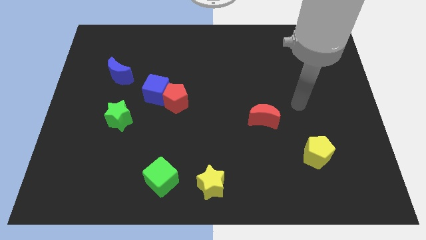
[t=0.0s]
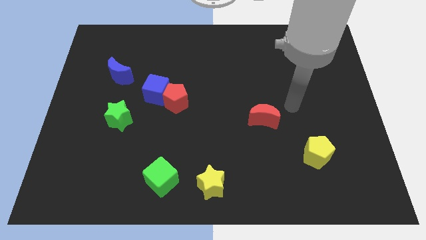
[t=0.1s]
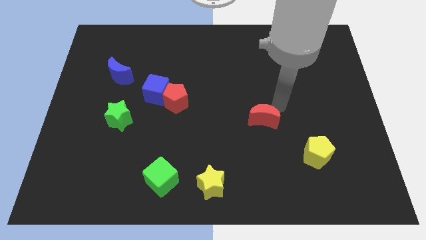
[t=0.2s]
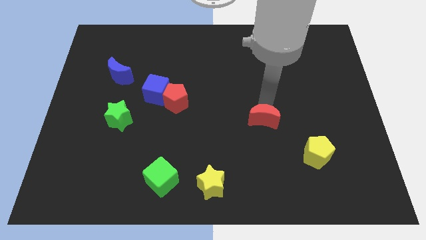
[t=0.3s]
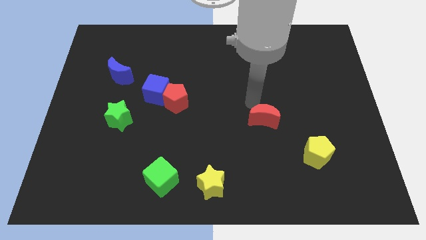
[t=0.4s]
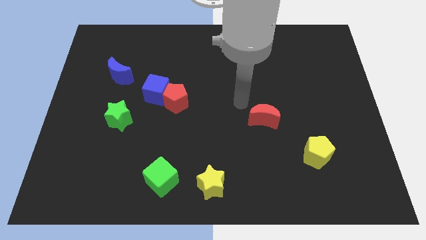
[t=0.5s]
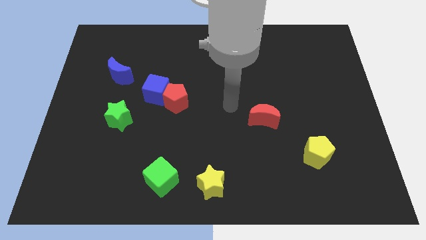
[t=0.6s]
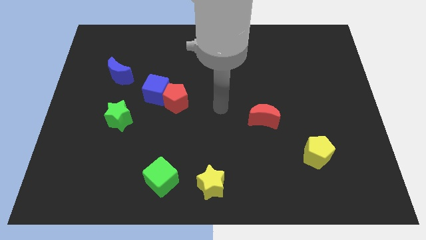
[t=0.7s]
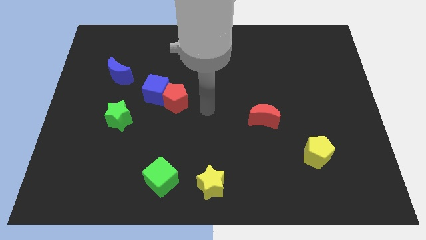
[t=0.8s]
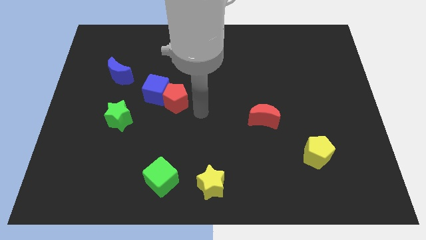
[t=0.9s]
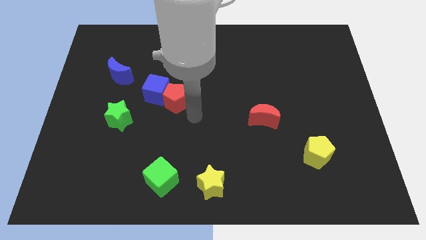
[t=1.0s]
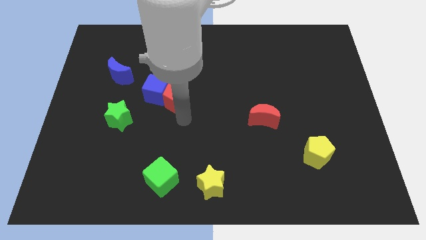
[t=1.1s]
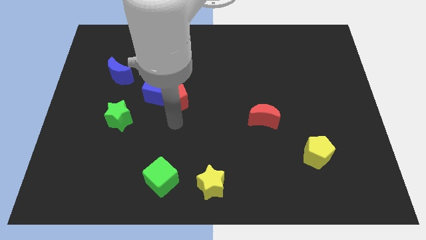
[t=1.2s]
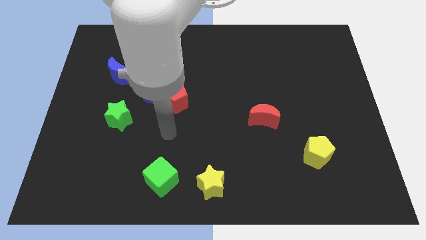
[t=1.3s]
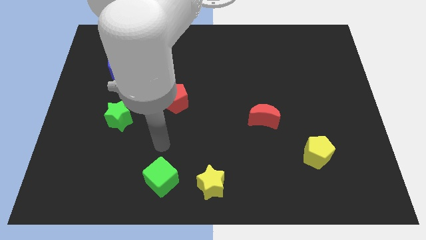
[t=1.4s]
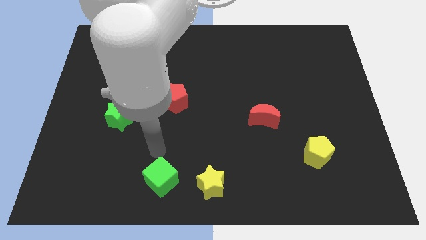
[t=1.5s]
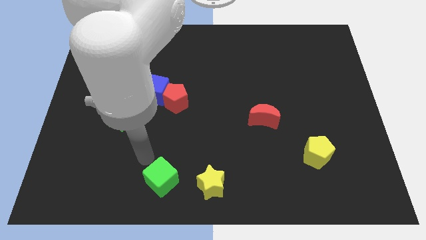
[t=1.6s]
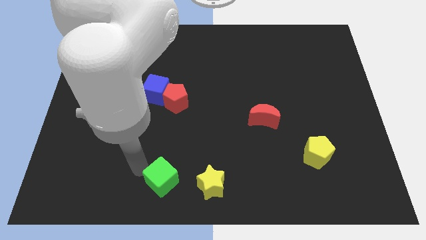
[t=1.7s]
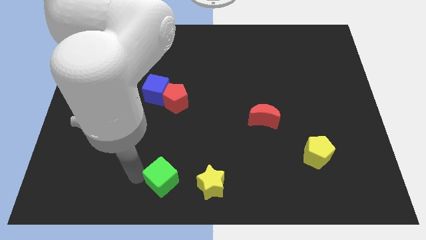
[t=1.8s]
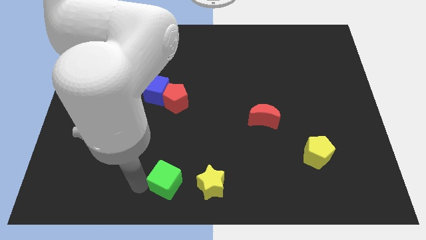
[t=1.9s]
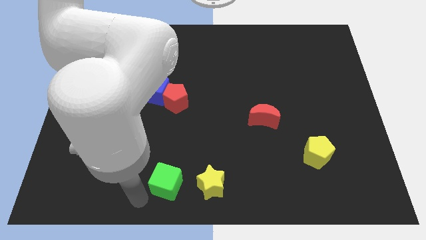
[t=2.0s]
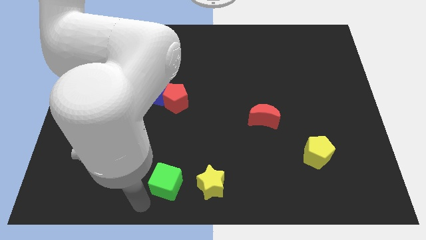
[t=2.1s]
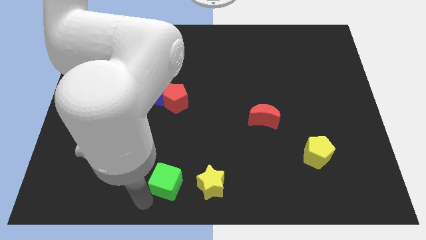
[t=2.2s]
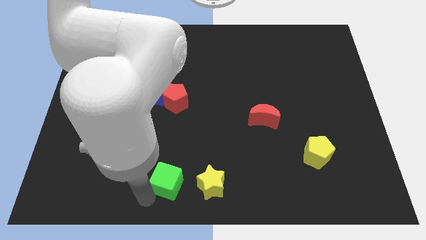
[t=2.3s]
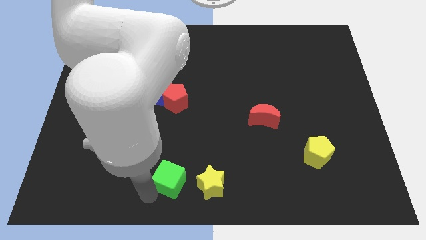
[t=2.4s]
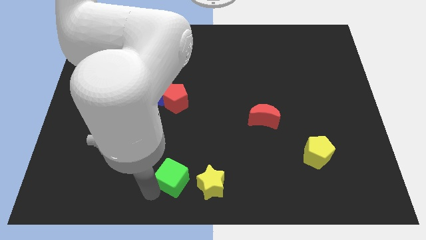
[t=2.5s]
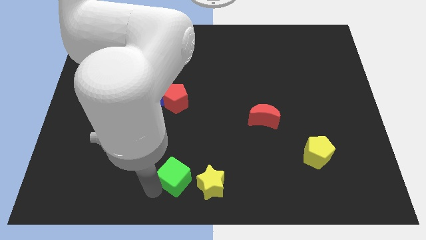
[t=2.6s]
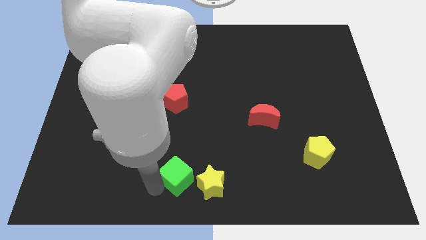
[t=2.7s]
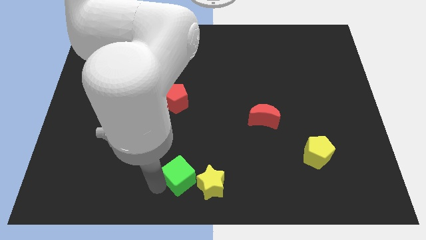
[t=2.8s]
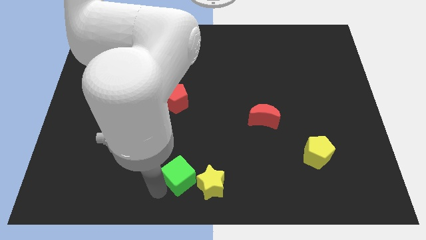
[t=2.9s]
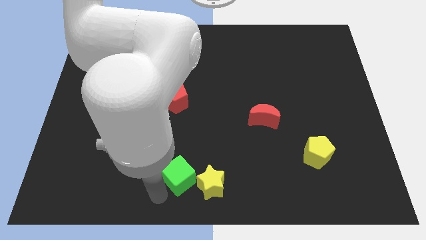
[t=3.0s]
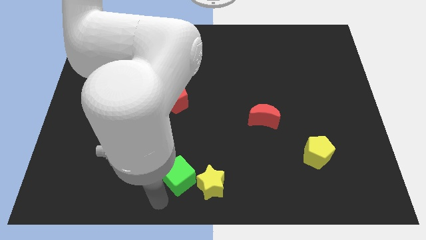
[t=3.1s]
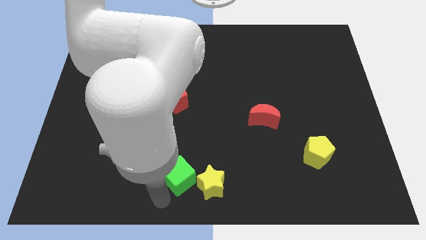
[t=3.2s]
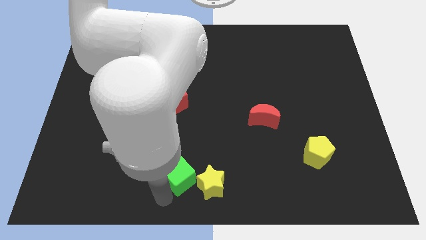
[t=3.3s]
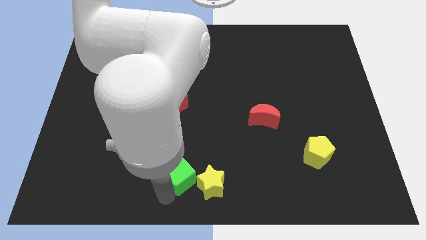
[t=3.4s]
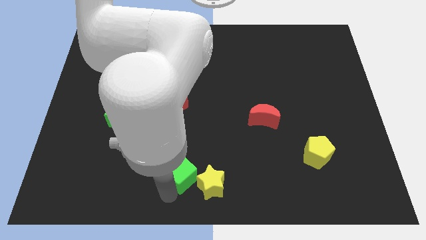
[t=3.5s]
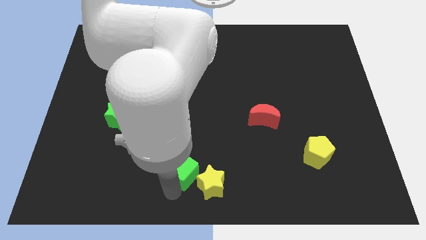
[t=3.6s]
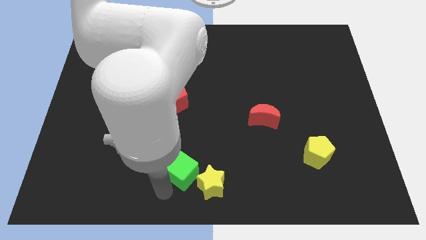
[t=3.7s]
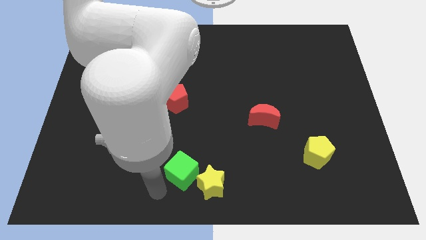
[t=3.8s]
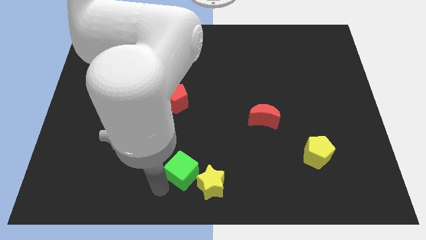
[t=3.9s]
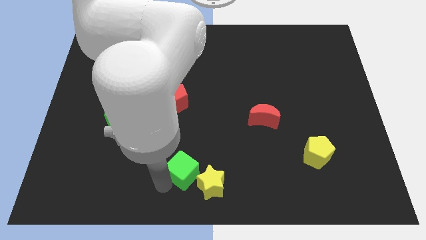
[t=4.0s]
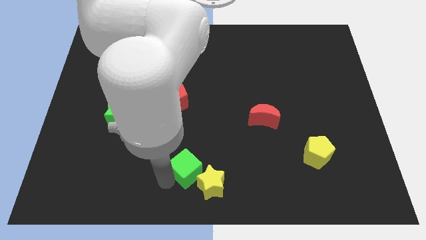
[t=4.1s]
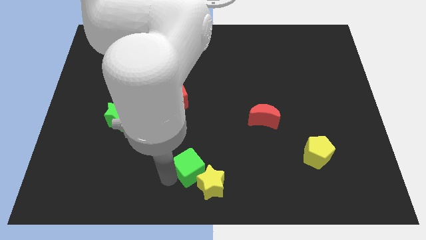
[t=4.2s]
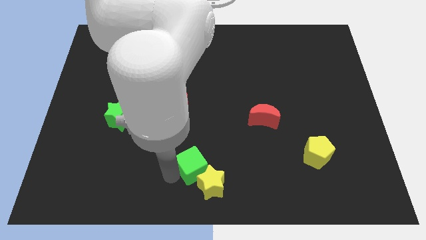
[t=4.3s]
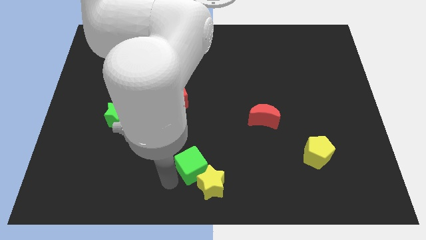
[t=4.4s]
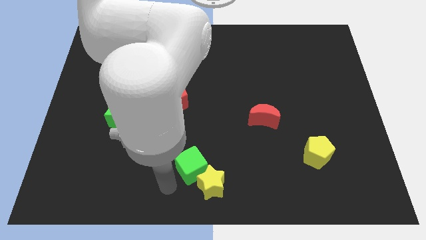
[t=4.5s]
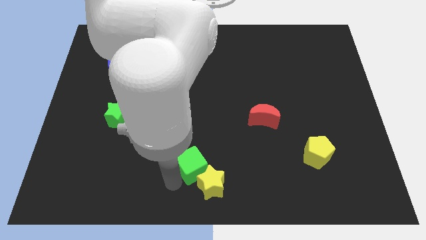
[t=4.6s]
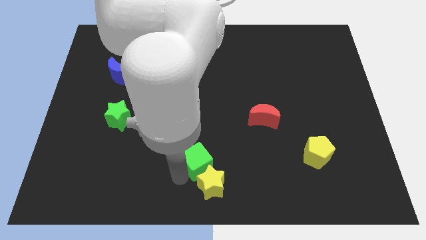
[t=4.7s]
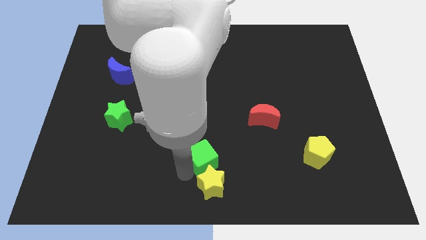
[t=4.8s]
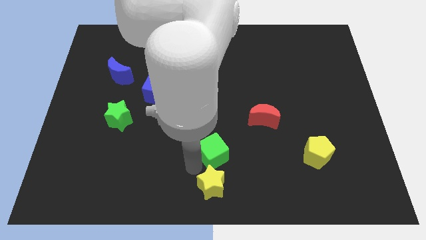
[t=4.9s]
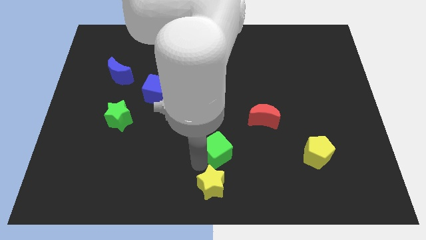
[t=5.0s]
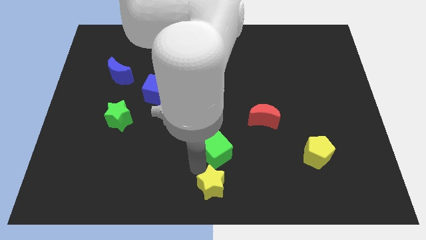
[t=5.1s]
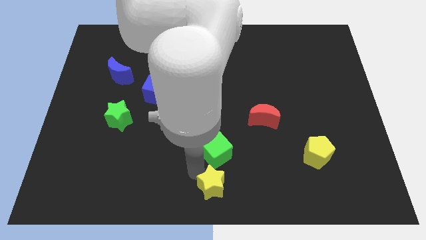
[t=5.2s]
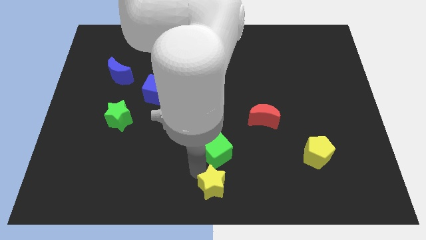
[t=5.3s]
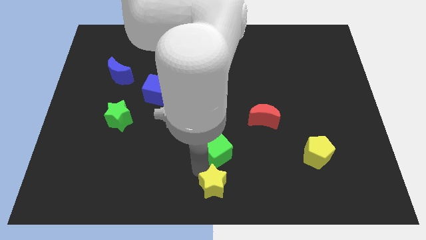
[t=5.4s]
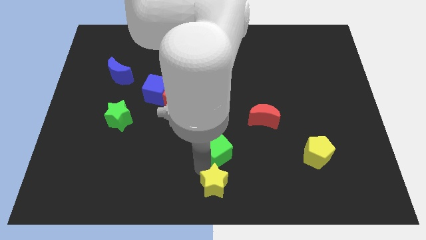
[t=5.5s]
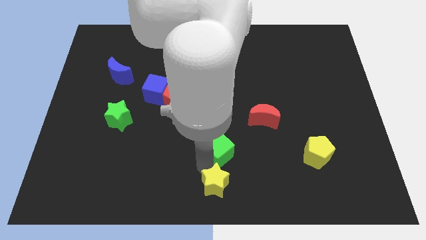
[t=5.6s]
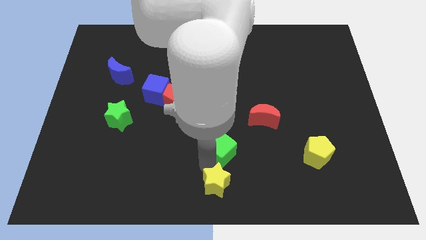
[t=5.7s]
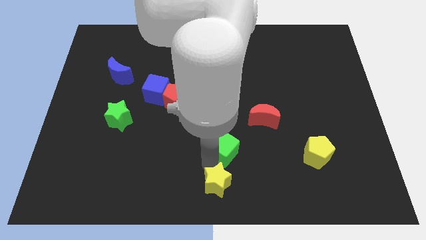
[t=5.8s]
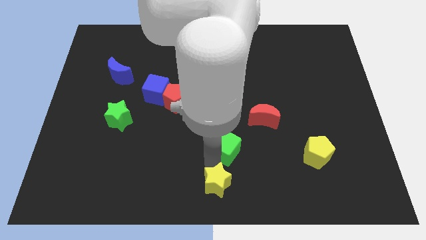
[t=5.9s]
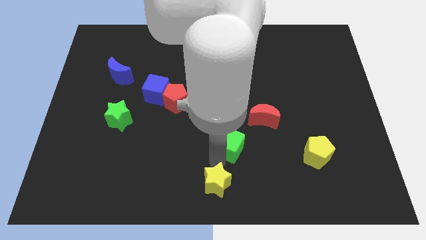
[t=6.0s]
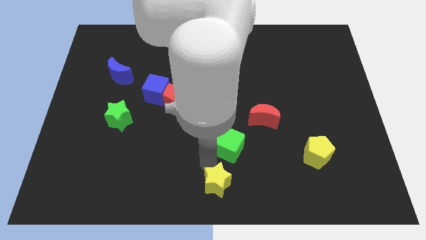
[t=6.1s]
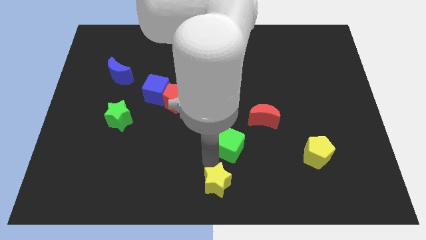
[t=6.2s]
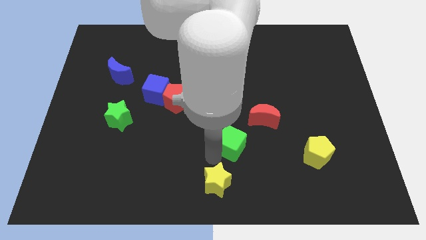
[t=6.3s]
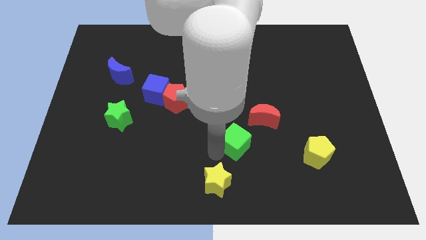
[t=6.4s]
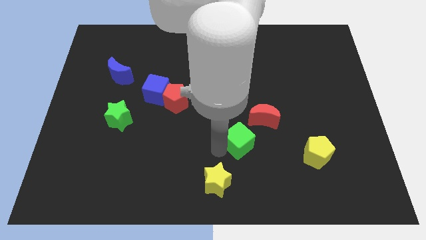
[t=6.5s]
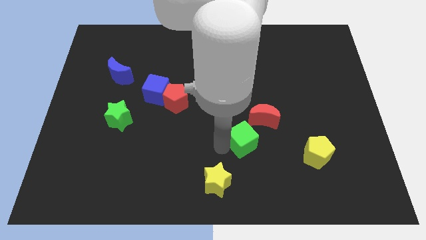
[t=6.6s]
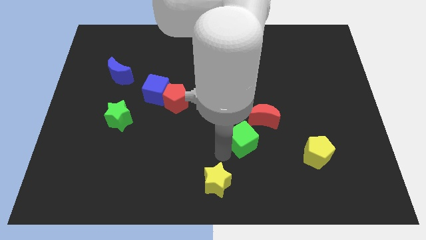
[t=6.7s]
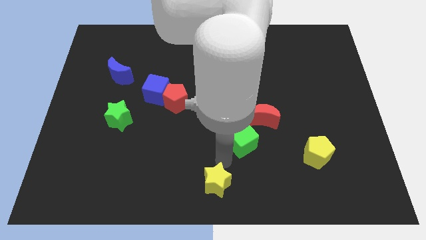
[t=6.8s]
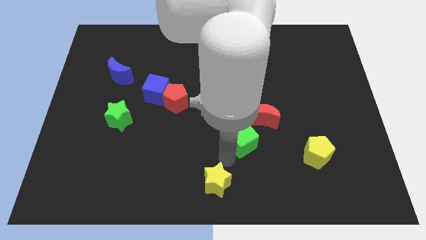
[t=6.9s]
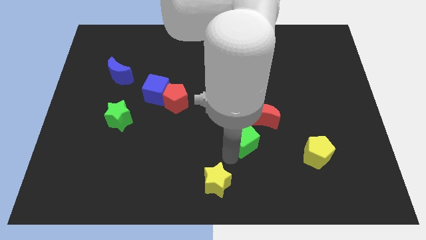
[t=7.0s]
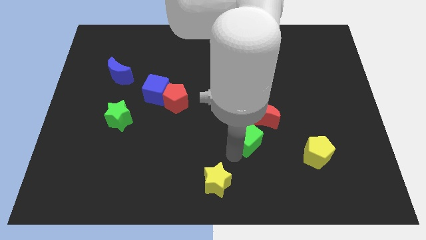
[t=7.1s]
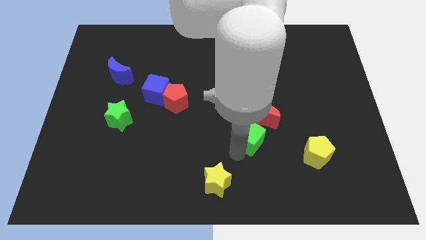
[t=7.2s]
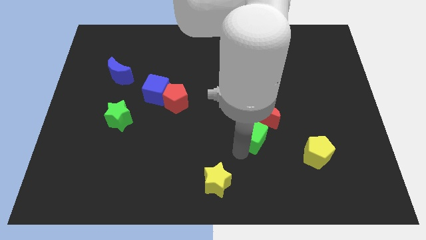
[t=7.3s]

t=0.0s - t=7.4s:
push the green cube next to the red moon
